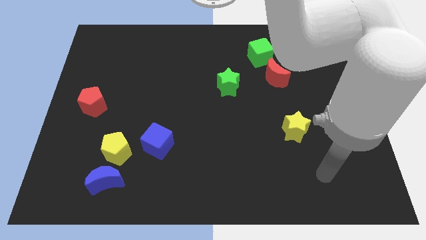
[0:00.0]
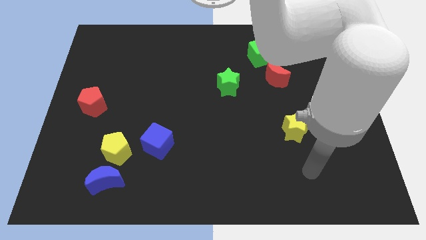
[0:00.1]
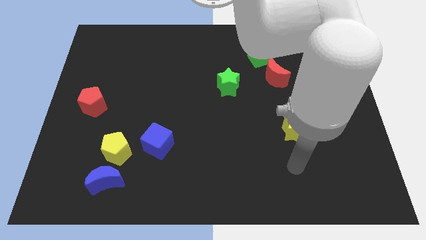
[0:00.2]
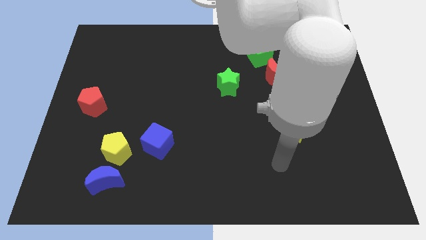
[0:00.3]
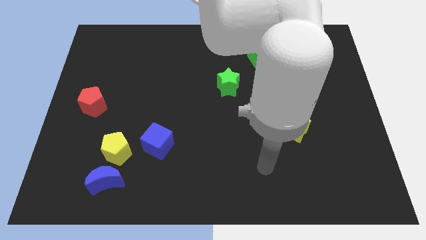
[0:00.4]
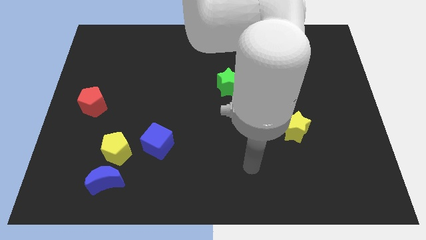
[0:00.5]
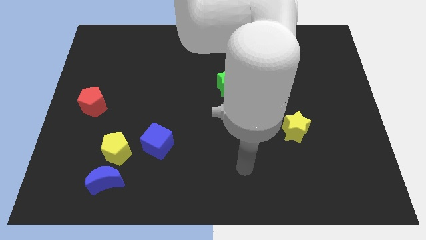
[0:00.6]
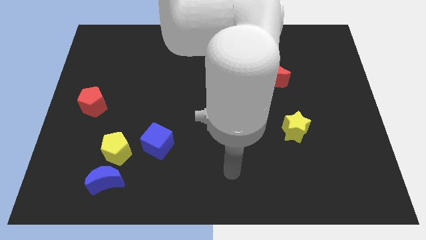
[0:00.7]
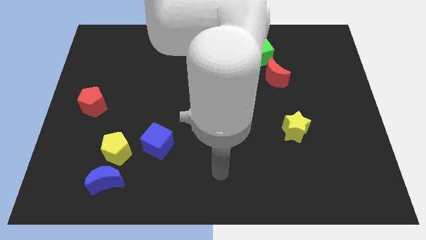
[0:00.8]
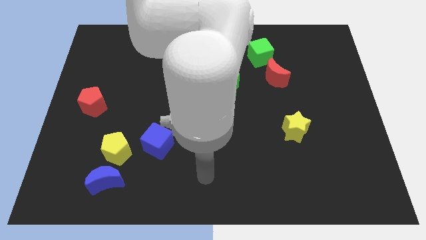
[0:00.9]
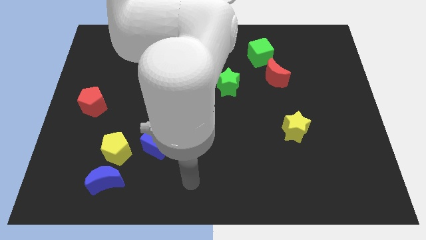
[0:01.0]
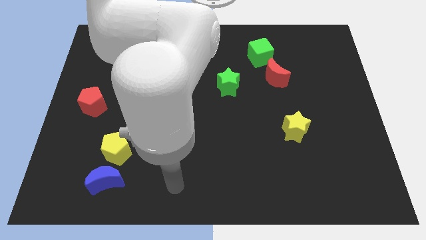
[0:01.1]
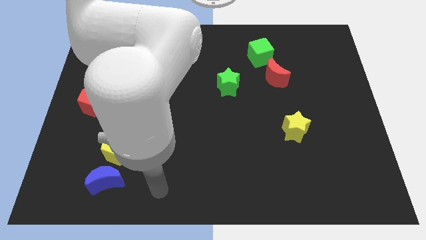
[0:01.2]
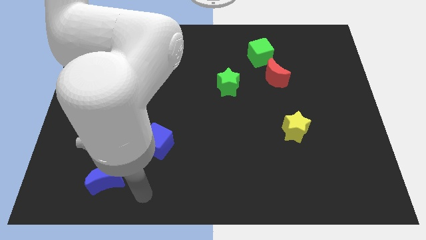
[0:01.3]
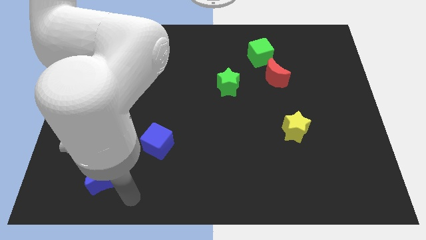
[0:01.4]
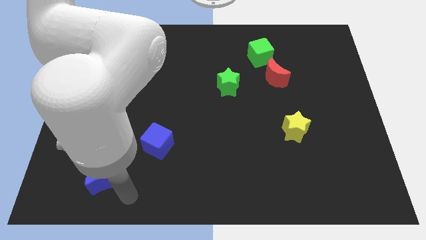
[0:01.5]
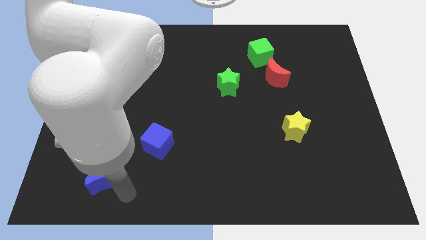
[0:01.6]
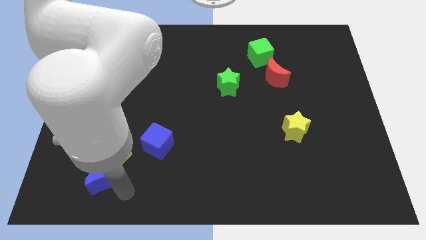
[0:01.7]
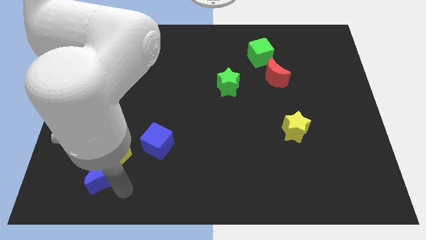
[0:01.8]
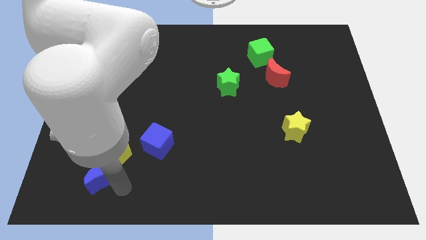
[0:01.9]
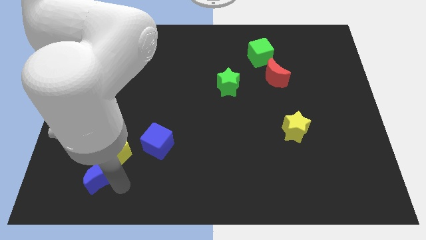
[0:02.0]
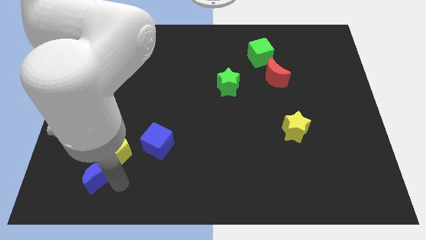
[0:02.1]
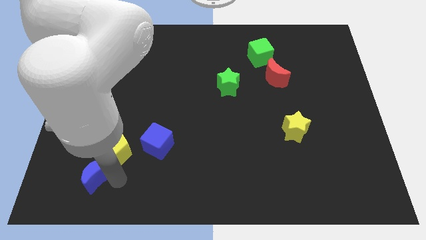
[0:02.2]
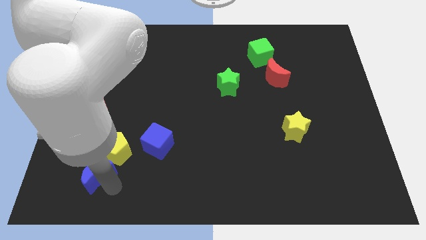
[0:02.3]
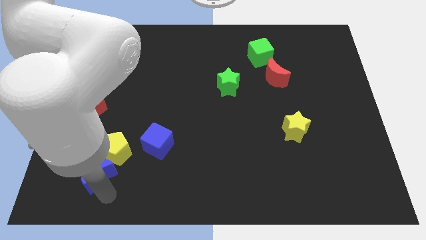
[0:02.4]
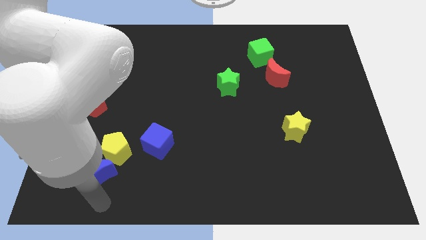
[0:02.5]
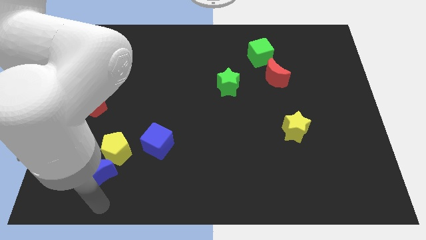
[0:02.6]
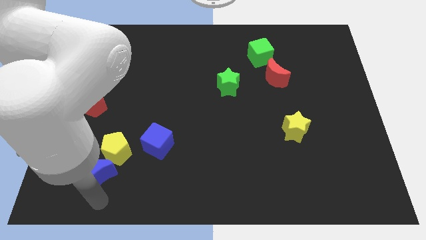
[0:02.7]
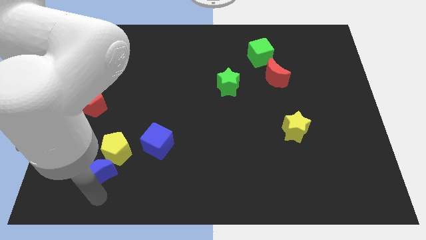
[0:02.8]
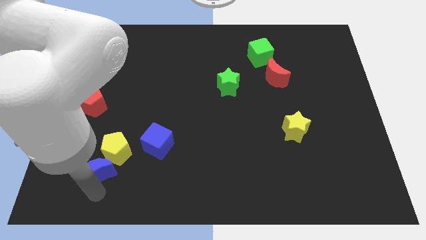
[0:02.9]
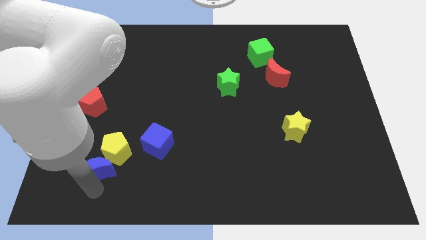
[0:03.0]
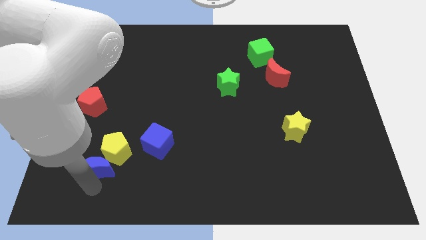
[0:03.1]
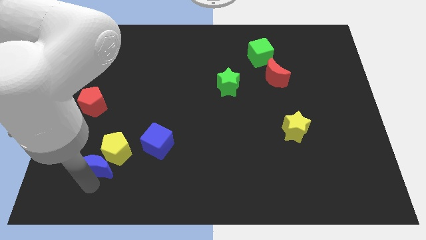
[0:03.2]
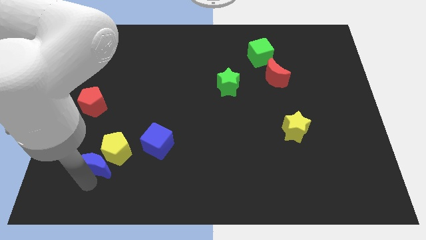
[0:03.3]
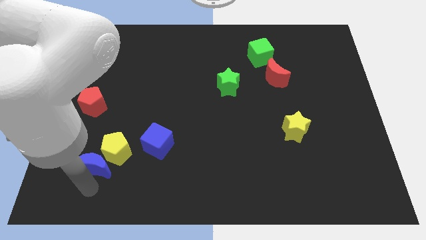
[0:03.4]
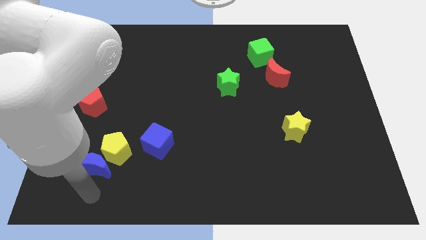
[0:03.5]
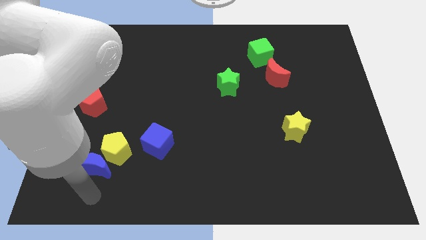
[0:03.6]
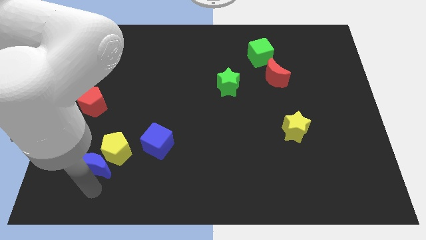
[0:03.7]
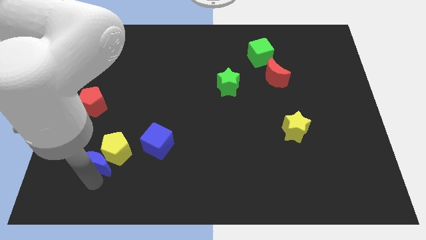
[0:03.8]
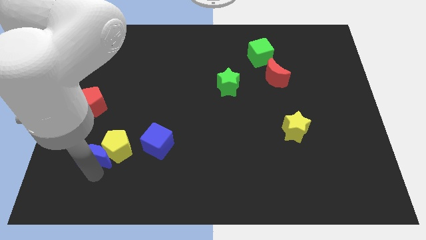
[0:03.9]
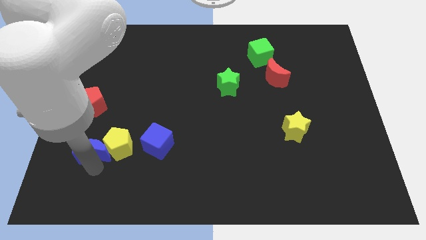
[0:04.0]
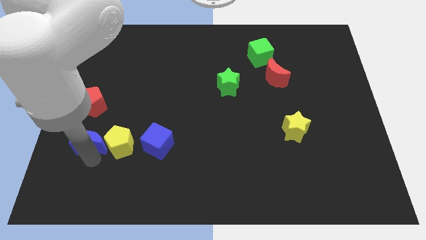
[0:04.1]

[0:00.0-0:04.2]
push the blue moon a little bit up

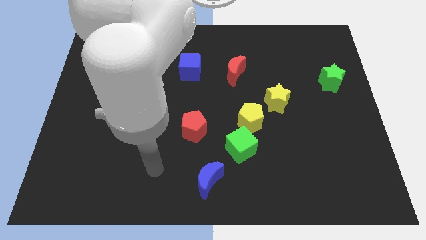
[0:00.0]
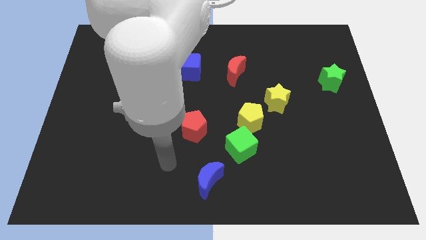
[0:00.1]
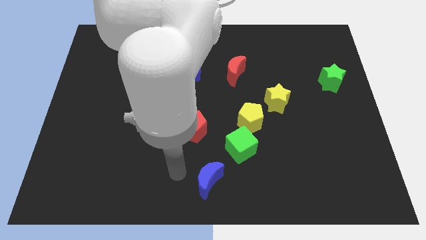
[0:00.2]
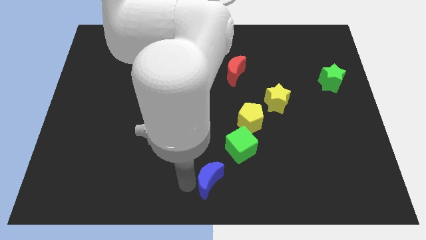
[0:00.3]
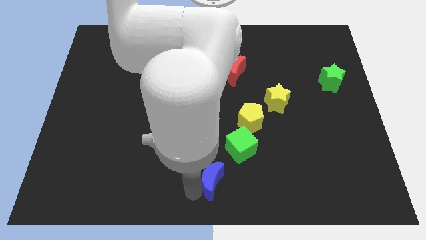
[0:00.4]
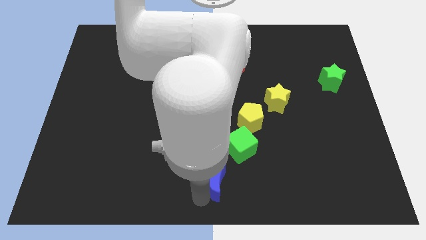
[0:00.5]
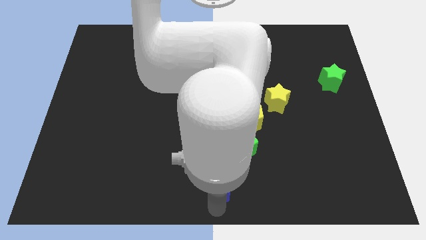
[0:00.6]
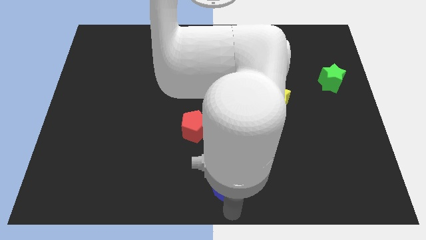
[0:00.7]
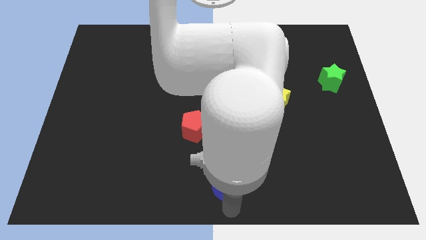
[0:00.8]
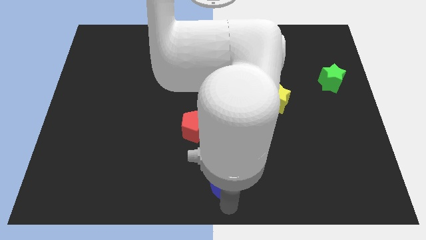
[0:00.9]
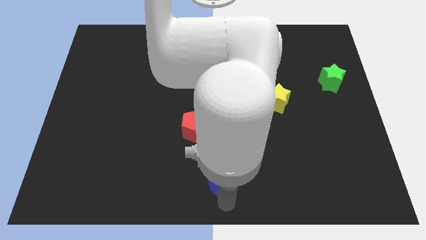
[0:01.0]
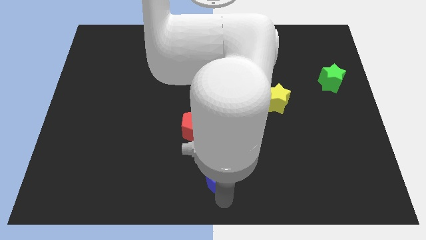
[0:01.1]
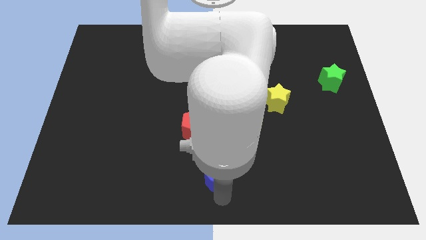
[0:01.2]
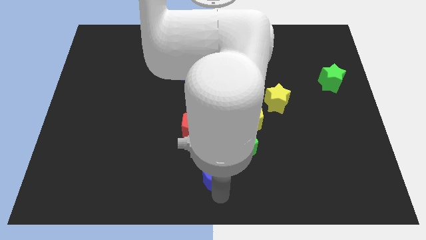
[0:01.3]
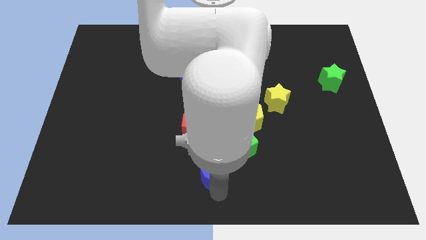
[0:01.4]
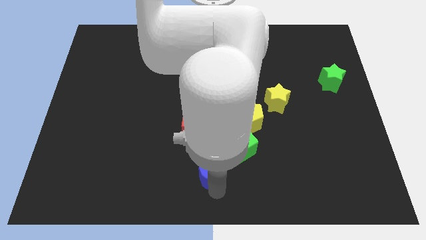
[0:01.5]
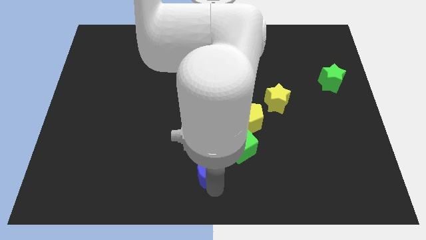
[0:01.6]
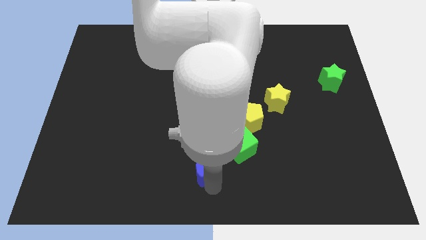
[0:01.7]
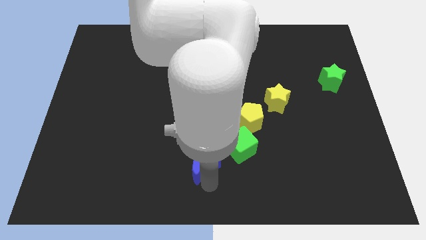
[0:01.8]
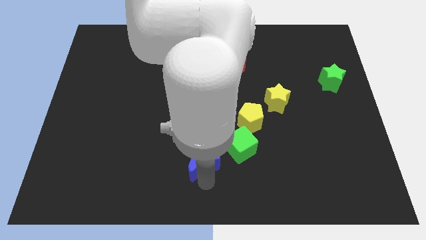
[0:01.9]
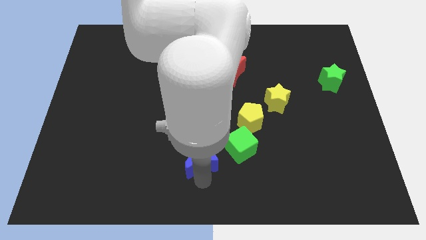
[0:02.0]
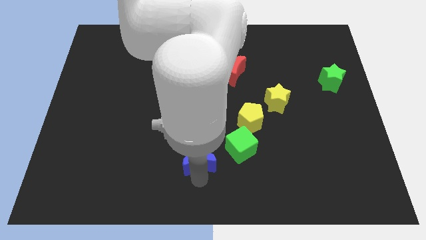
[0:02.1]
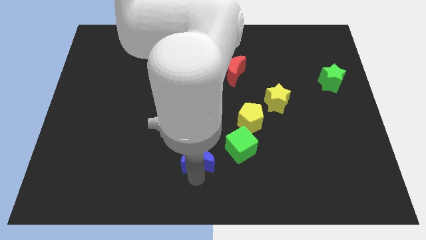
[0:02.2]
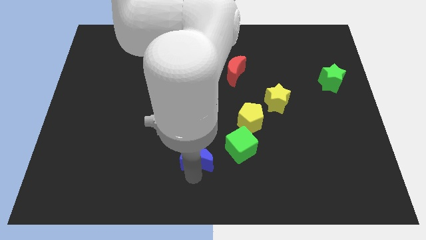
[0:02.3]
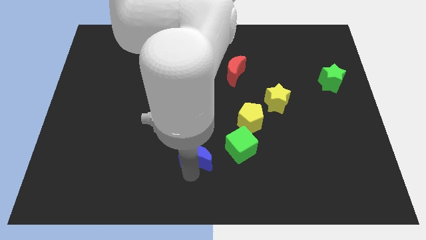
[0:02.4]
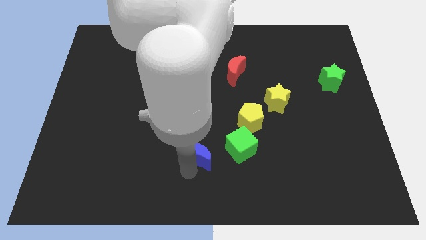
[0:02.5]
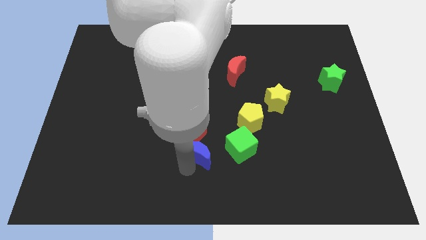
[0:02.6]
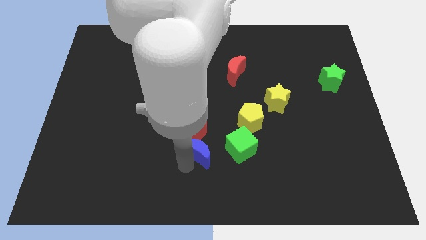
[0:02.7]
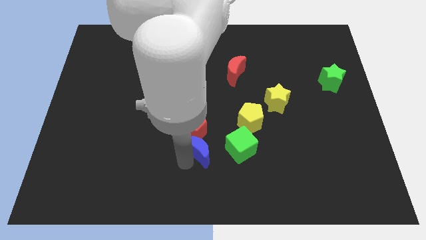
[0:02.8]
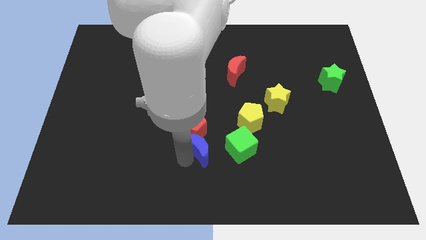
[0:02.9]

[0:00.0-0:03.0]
push the blue moon a little up

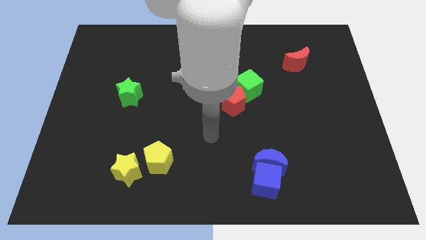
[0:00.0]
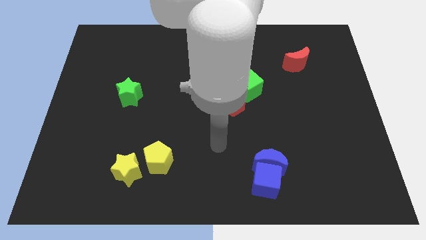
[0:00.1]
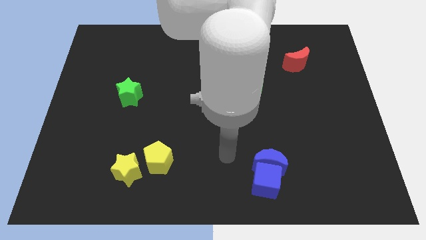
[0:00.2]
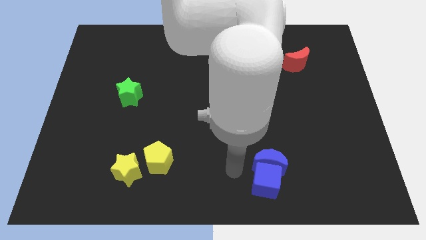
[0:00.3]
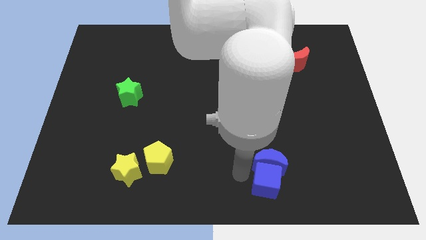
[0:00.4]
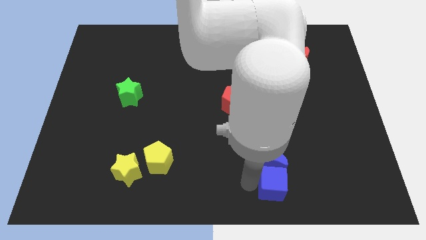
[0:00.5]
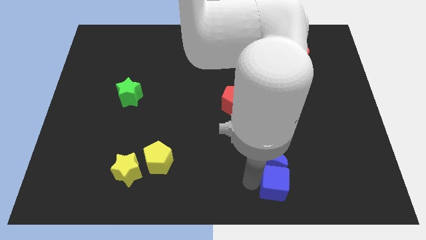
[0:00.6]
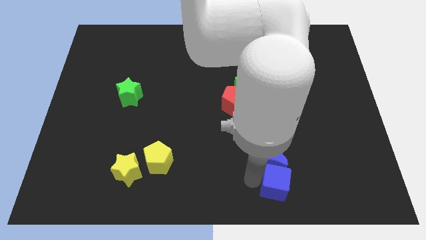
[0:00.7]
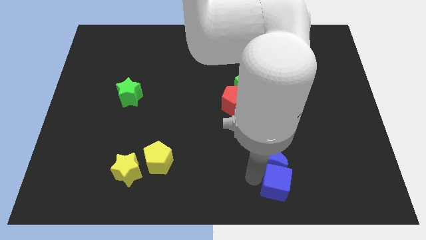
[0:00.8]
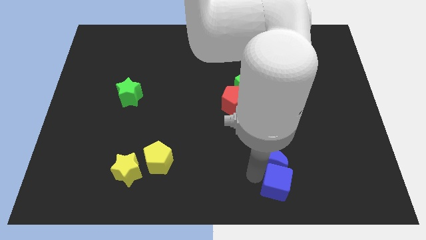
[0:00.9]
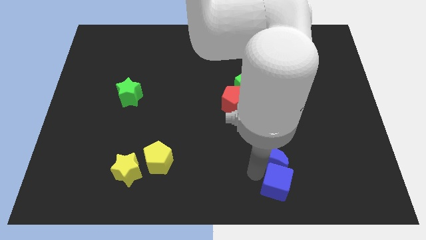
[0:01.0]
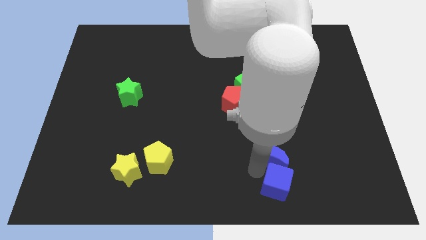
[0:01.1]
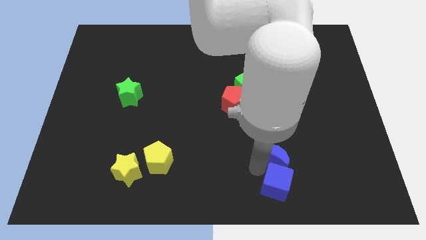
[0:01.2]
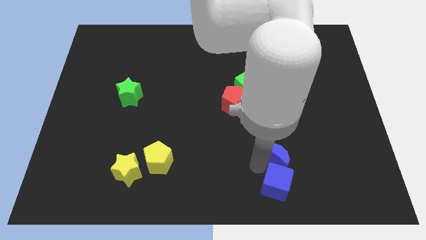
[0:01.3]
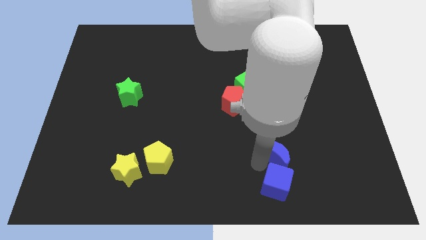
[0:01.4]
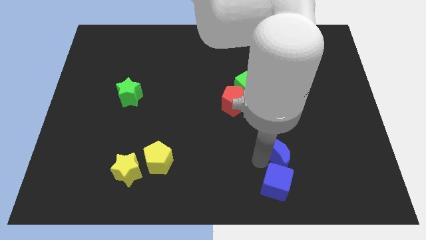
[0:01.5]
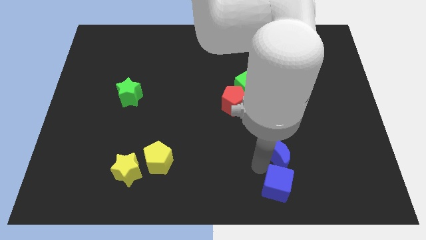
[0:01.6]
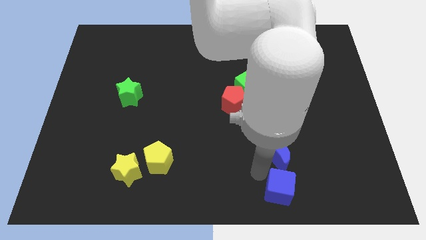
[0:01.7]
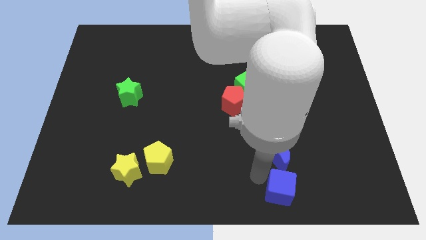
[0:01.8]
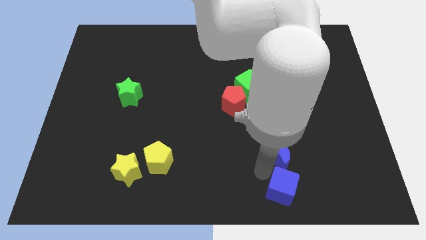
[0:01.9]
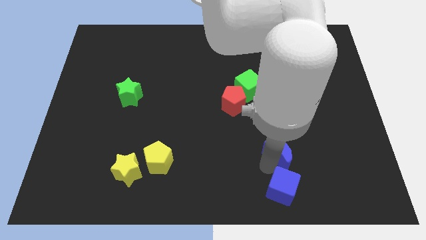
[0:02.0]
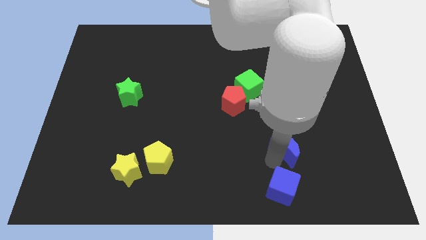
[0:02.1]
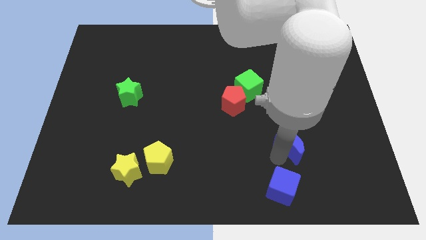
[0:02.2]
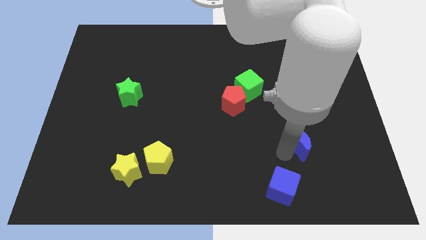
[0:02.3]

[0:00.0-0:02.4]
slightly push the blue moon up and right diagonally
